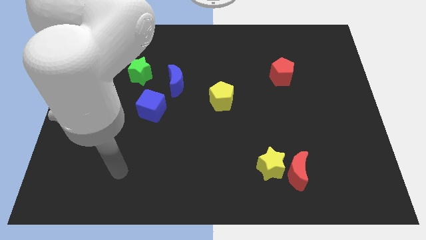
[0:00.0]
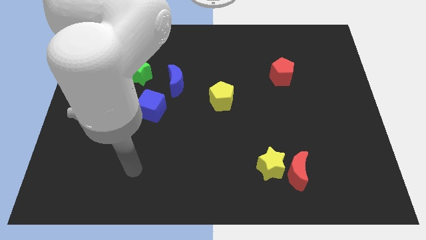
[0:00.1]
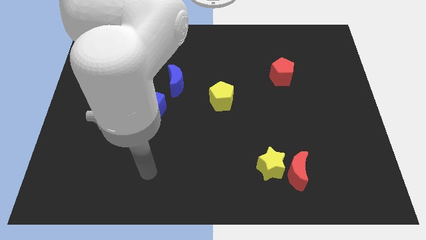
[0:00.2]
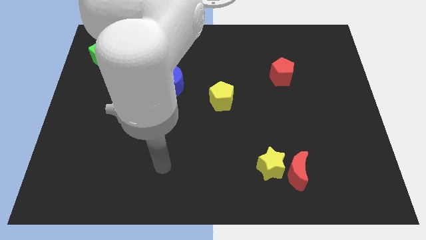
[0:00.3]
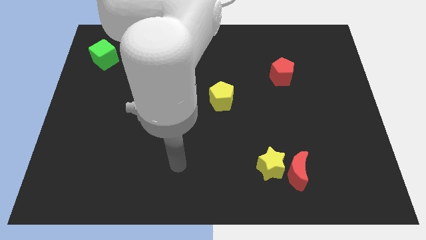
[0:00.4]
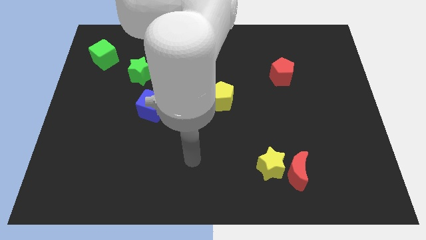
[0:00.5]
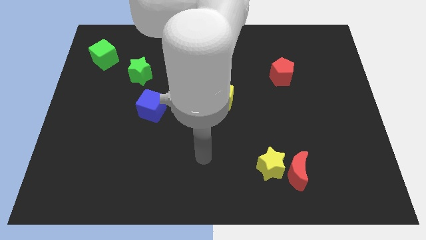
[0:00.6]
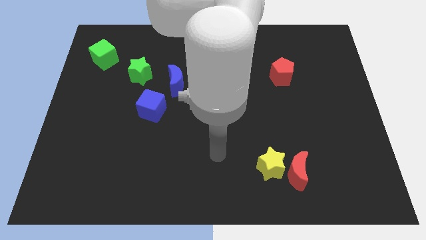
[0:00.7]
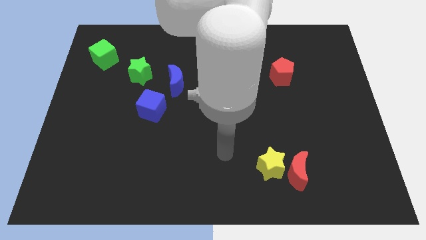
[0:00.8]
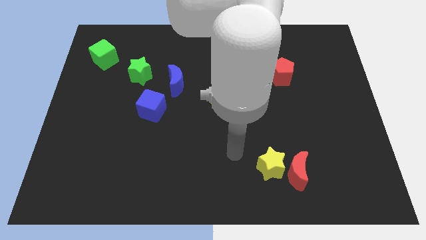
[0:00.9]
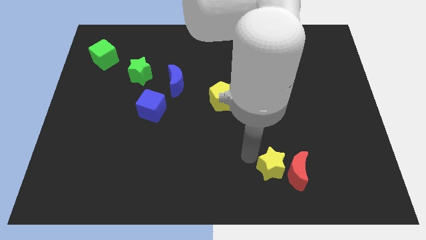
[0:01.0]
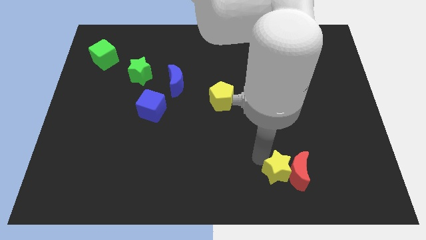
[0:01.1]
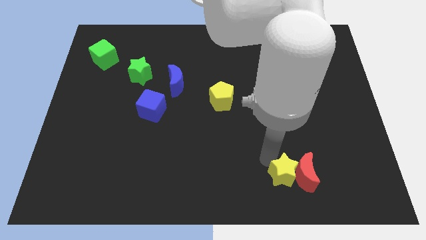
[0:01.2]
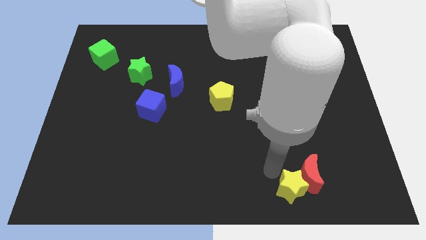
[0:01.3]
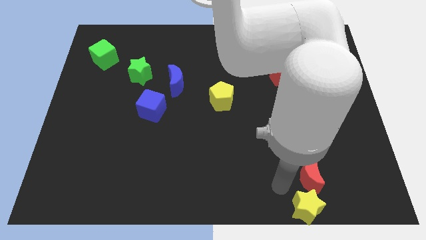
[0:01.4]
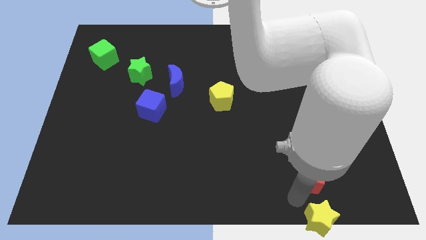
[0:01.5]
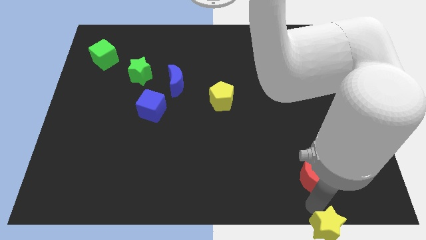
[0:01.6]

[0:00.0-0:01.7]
move the red moon away from the yellow star

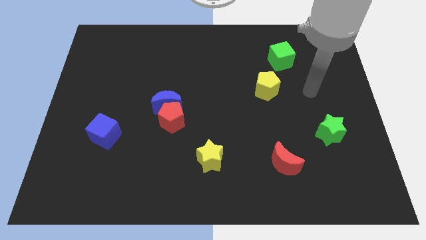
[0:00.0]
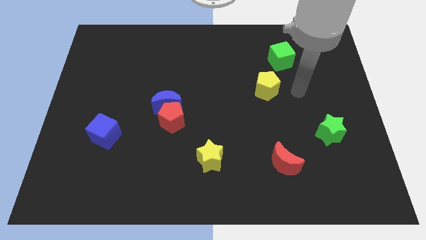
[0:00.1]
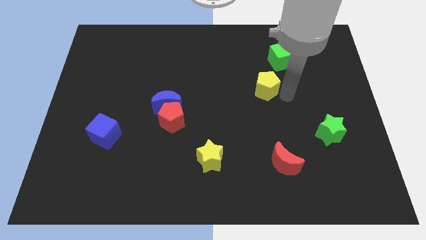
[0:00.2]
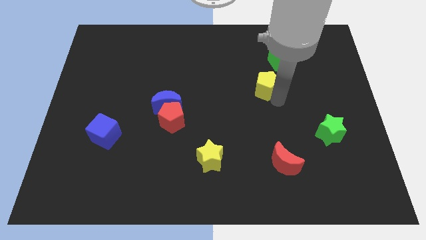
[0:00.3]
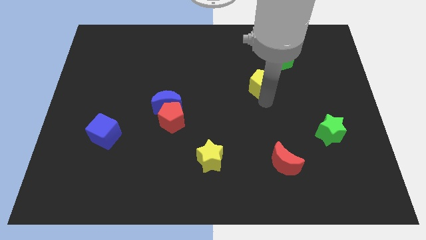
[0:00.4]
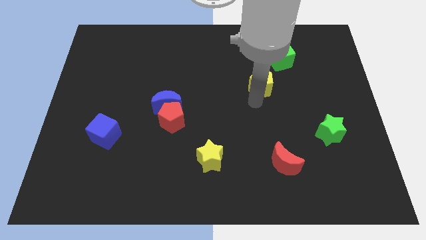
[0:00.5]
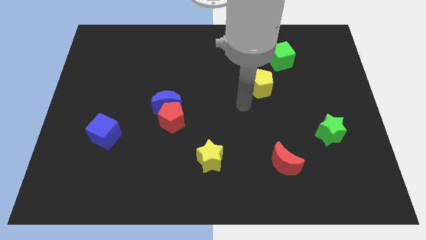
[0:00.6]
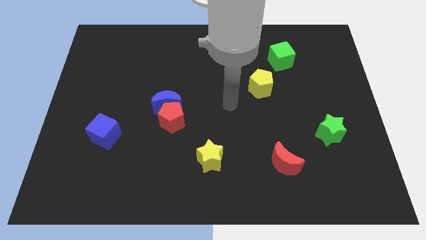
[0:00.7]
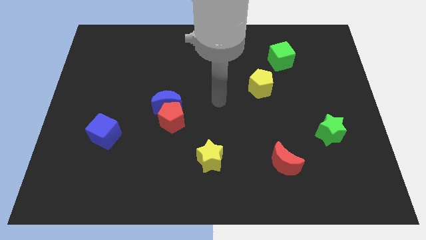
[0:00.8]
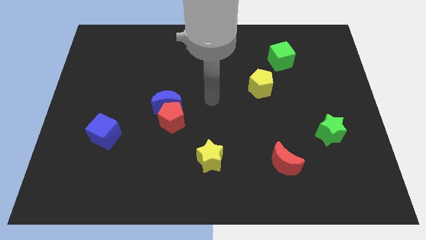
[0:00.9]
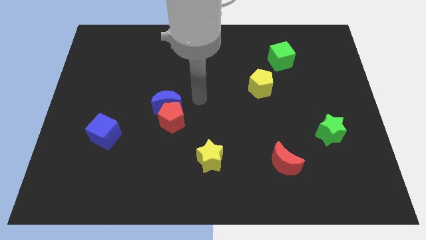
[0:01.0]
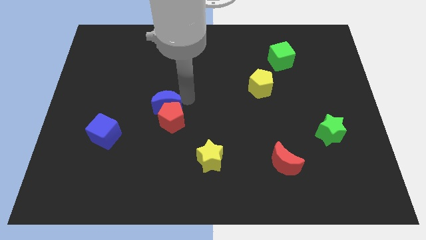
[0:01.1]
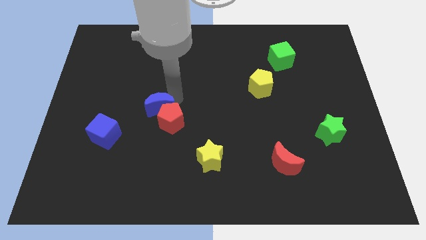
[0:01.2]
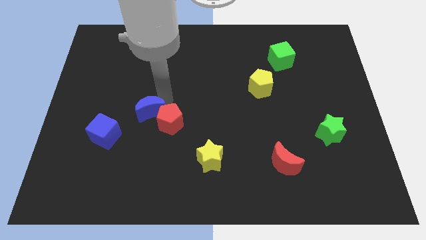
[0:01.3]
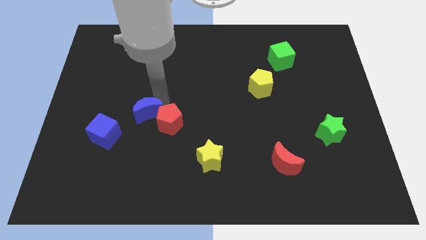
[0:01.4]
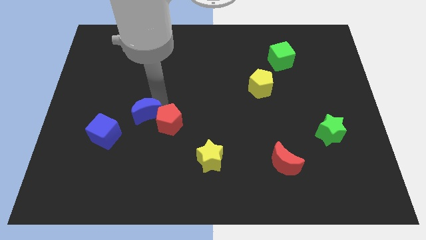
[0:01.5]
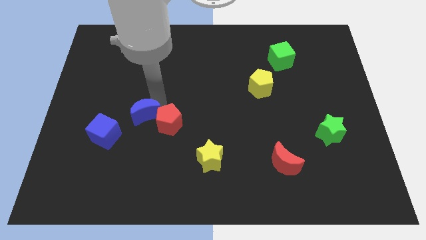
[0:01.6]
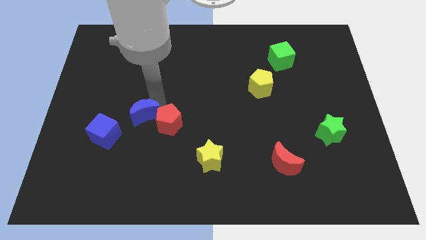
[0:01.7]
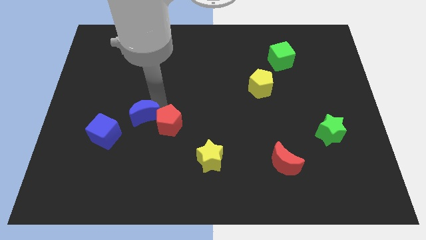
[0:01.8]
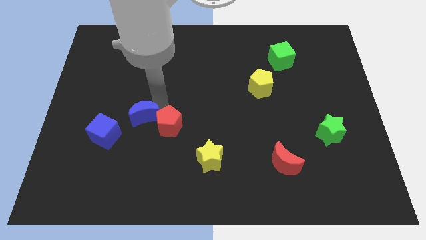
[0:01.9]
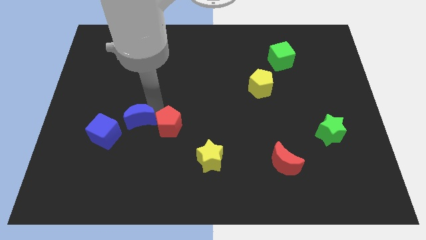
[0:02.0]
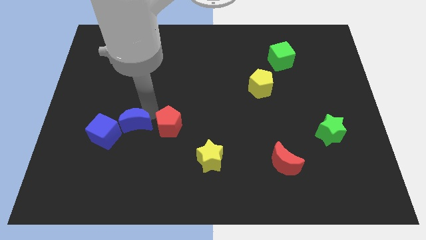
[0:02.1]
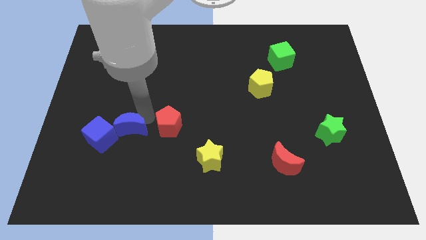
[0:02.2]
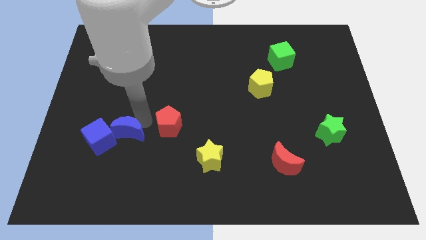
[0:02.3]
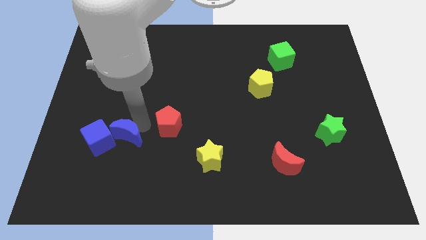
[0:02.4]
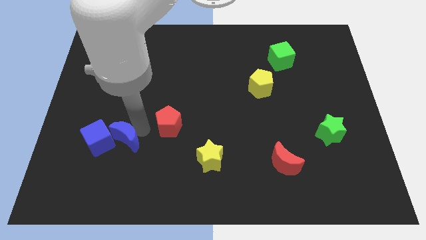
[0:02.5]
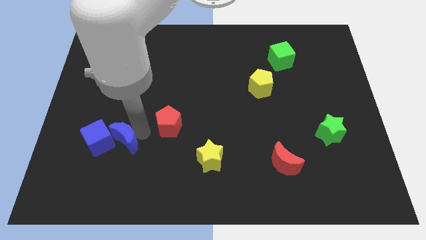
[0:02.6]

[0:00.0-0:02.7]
separate the red pentagon from the blue moon

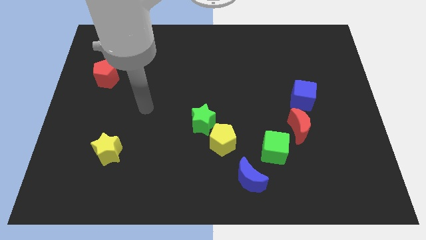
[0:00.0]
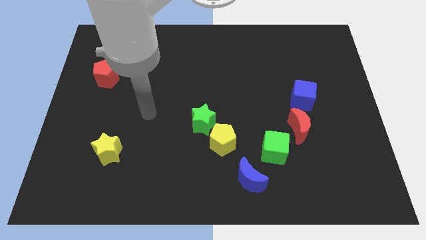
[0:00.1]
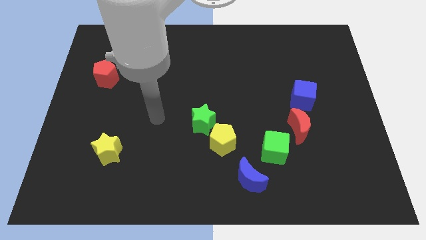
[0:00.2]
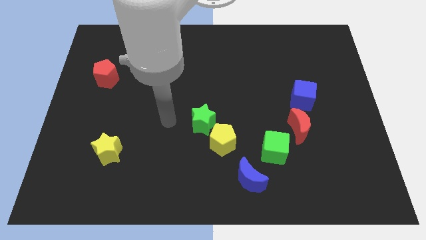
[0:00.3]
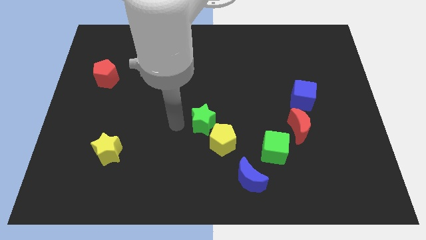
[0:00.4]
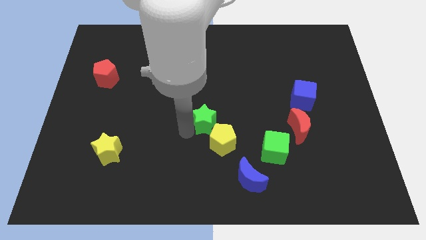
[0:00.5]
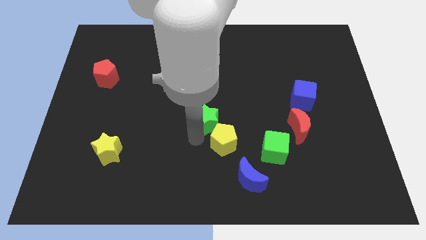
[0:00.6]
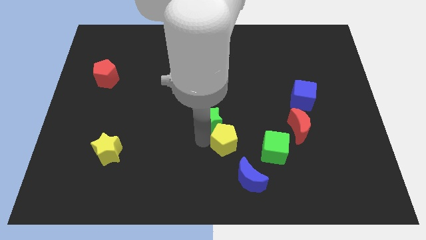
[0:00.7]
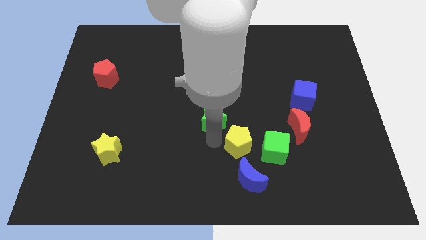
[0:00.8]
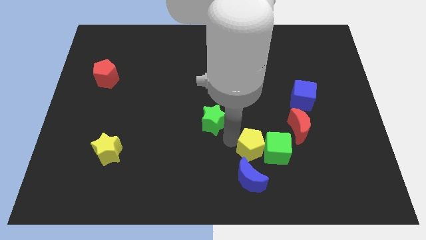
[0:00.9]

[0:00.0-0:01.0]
separate the green star from the yellow pentagon

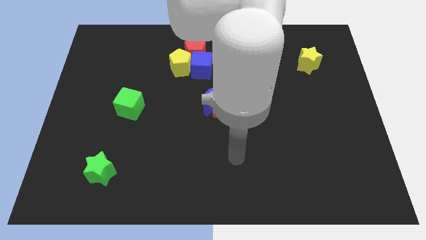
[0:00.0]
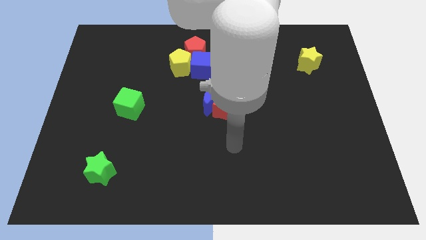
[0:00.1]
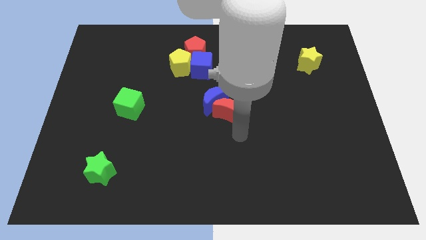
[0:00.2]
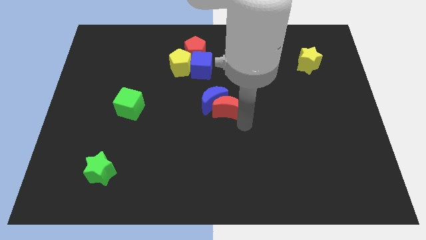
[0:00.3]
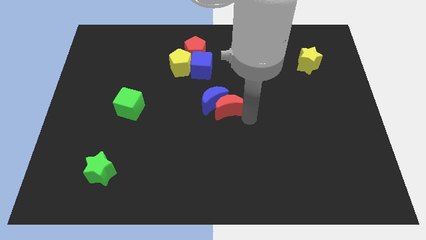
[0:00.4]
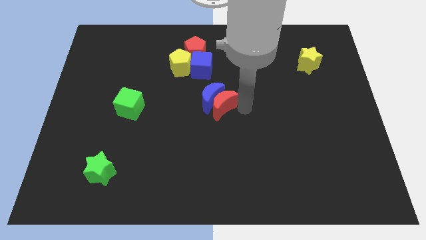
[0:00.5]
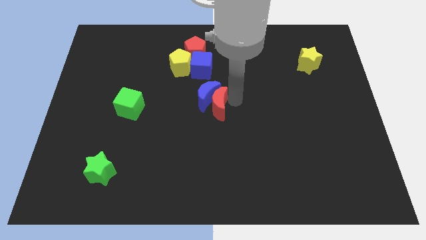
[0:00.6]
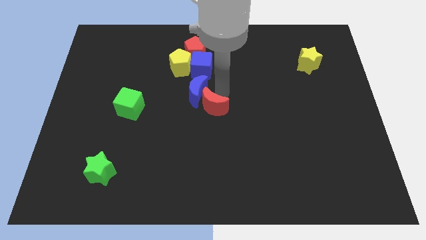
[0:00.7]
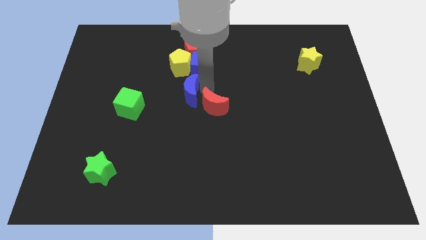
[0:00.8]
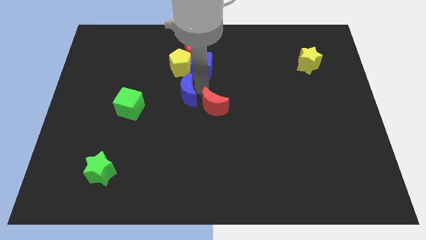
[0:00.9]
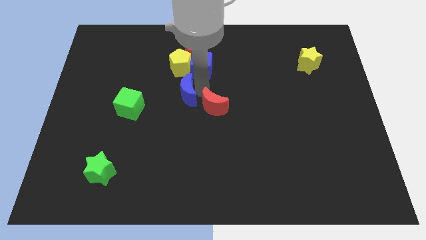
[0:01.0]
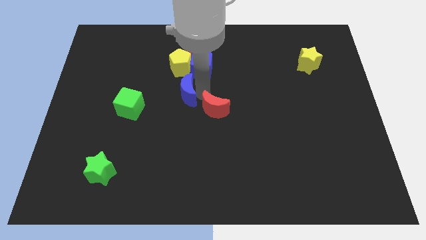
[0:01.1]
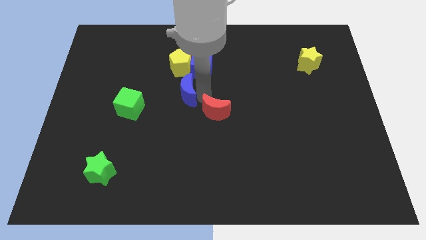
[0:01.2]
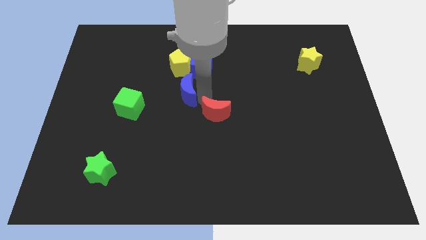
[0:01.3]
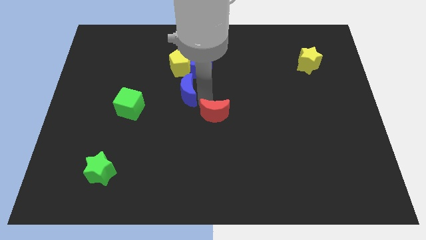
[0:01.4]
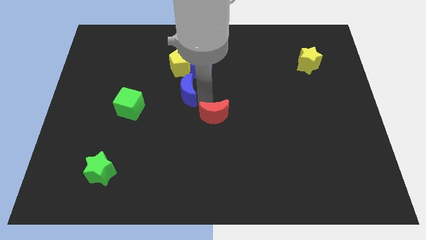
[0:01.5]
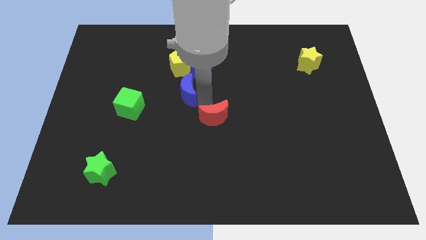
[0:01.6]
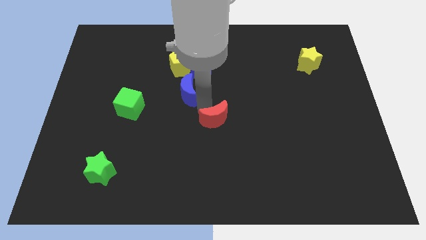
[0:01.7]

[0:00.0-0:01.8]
move the red moon away from the blue moon

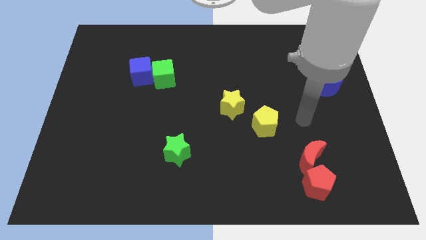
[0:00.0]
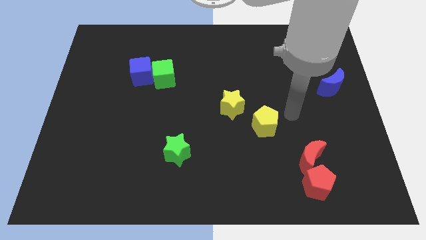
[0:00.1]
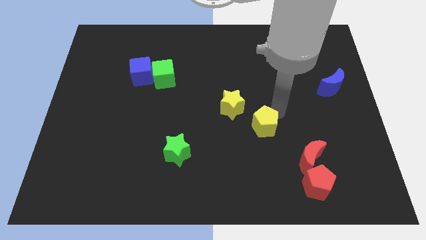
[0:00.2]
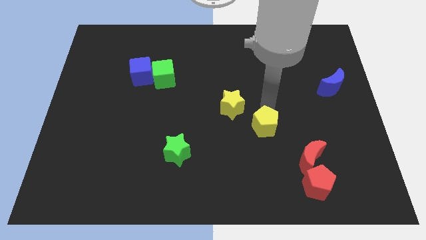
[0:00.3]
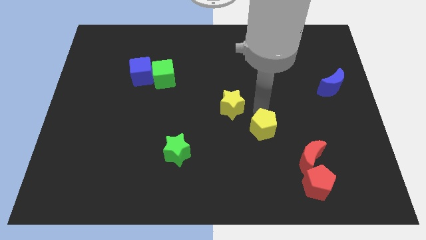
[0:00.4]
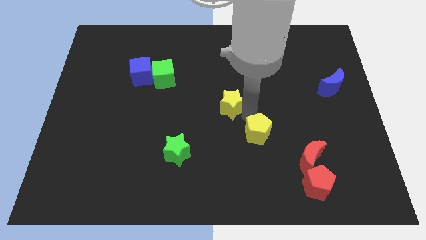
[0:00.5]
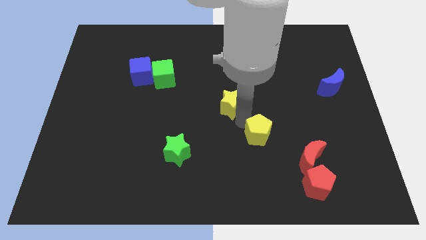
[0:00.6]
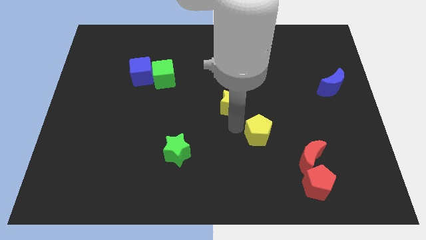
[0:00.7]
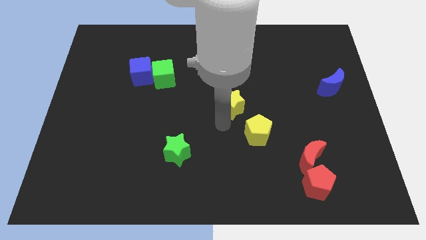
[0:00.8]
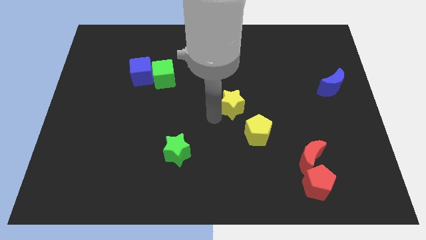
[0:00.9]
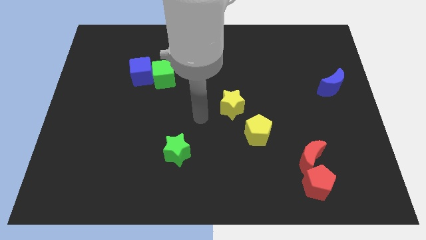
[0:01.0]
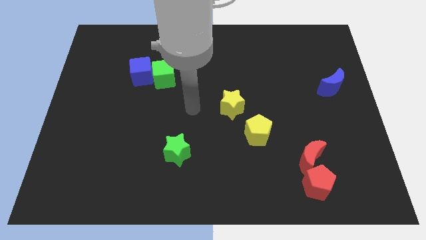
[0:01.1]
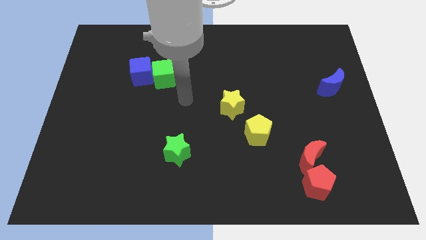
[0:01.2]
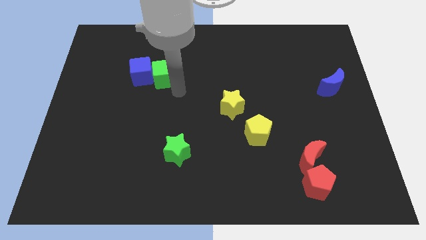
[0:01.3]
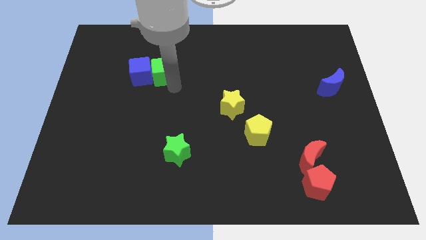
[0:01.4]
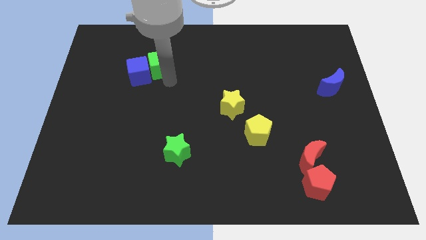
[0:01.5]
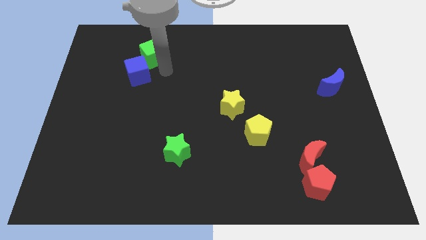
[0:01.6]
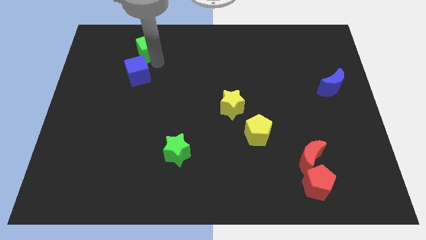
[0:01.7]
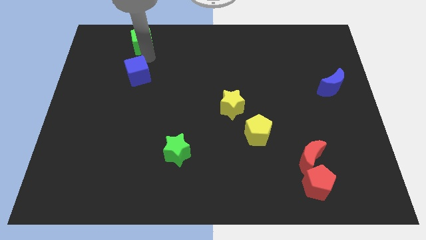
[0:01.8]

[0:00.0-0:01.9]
separate the blue cube from the green cube

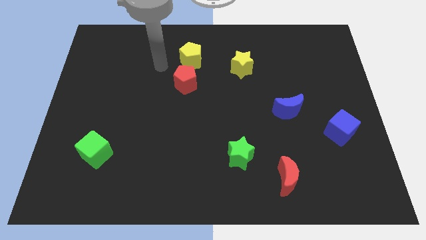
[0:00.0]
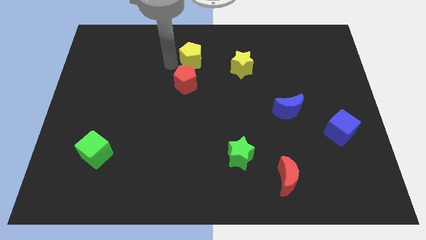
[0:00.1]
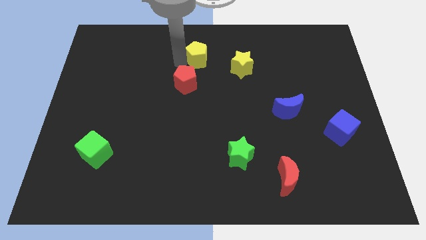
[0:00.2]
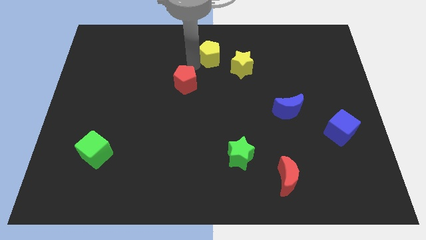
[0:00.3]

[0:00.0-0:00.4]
move the red pentagon away from the yellow pentagon
